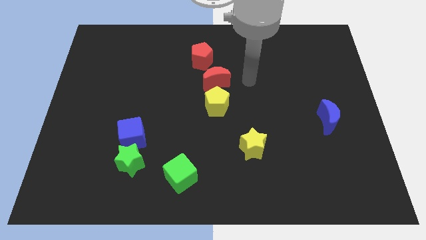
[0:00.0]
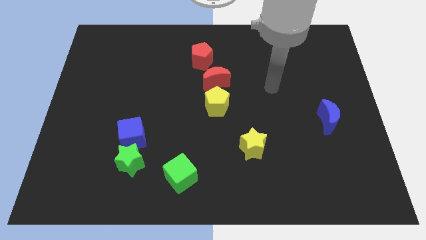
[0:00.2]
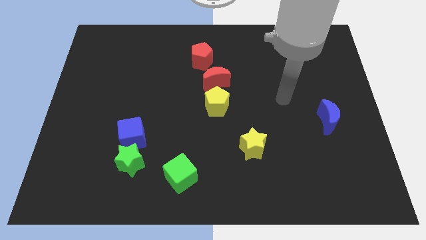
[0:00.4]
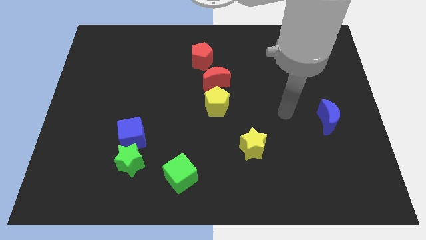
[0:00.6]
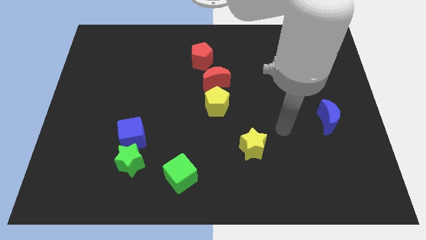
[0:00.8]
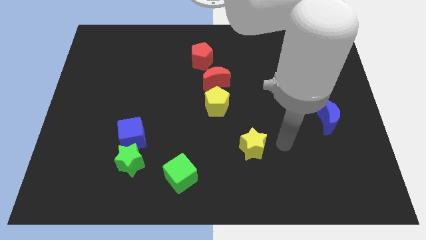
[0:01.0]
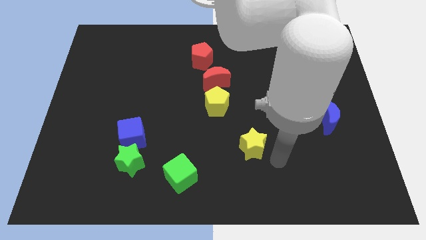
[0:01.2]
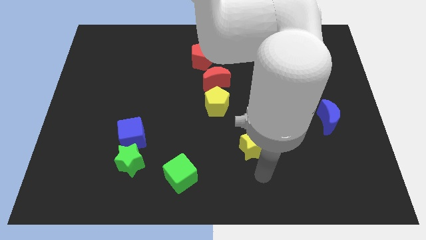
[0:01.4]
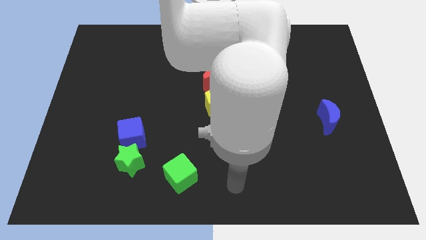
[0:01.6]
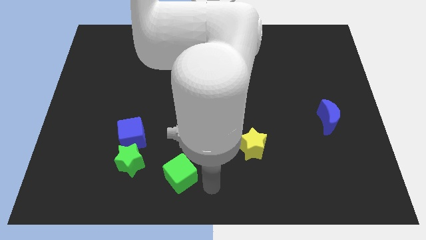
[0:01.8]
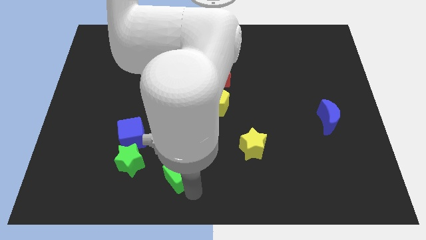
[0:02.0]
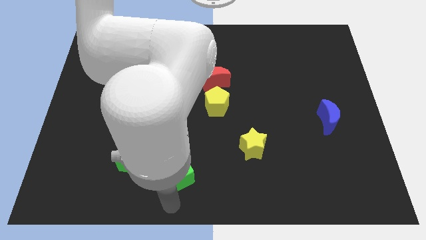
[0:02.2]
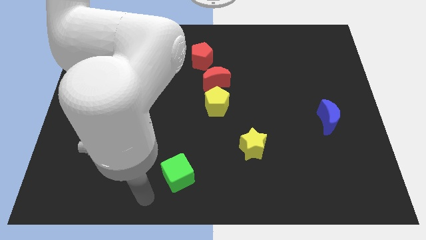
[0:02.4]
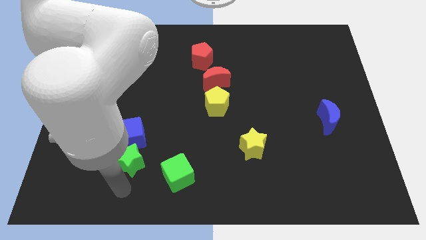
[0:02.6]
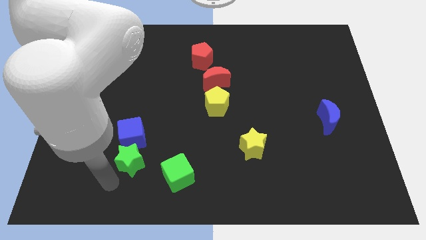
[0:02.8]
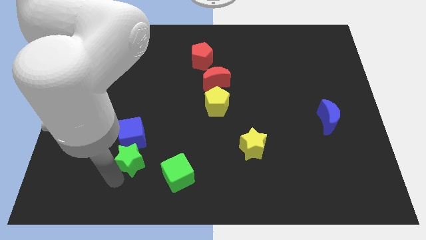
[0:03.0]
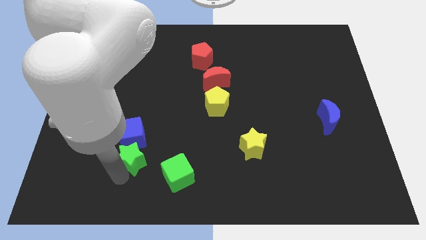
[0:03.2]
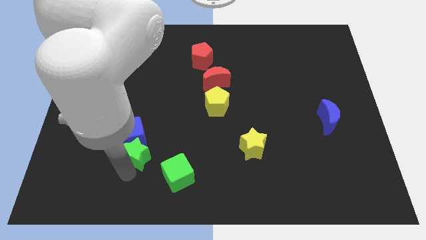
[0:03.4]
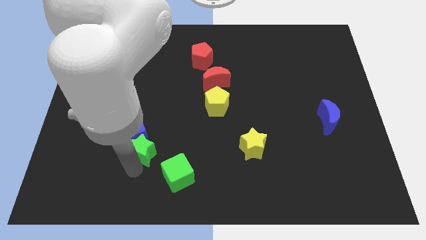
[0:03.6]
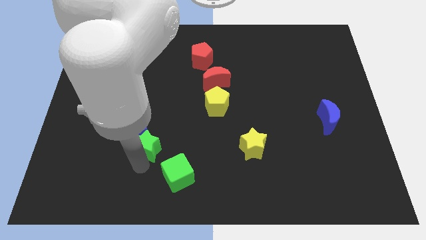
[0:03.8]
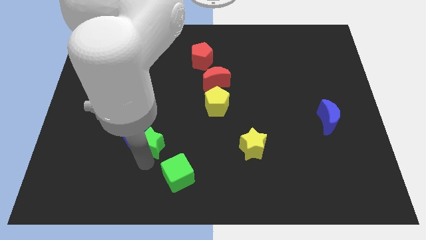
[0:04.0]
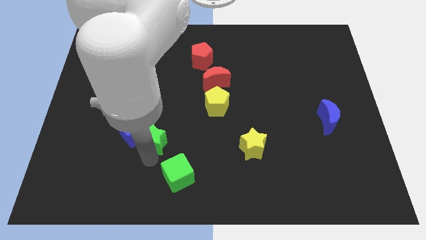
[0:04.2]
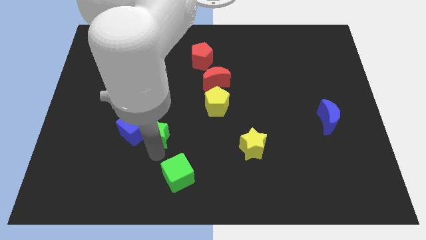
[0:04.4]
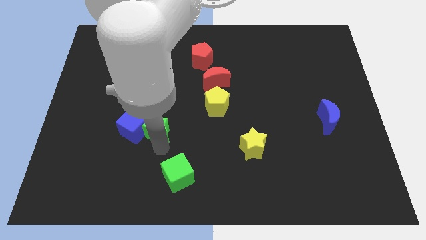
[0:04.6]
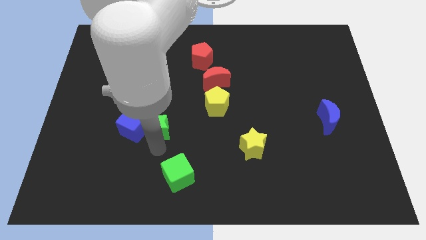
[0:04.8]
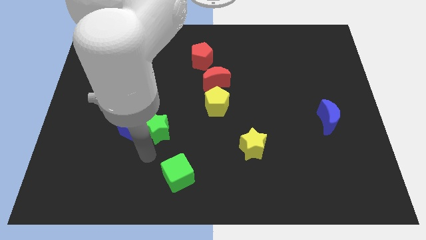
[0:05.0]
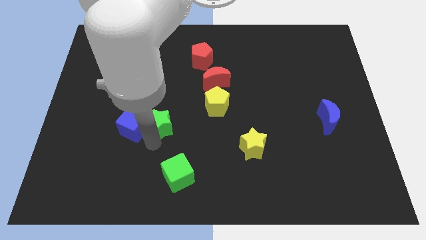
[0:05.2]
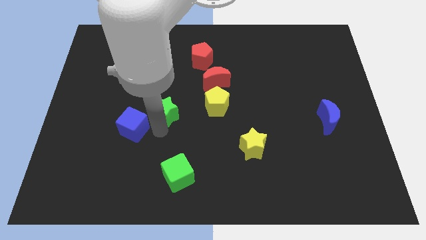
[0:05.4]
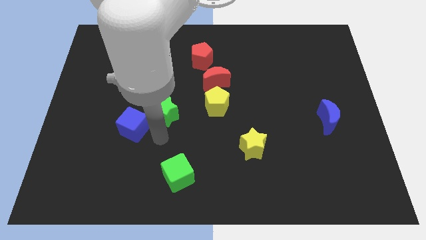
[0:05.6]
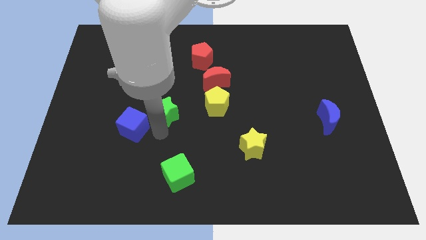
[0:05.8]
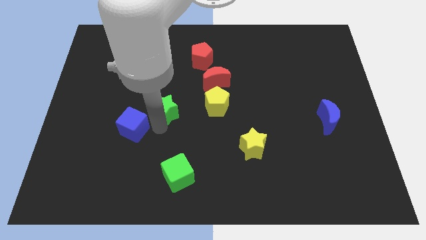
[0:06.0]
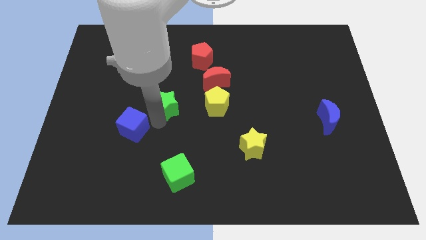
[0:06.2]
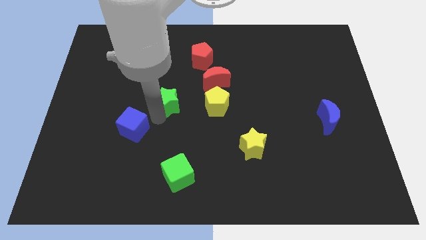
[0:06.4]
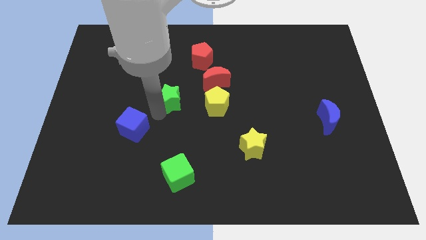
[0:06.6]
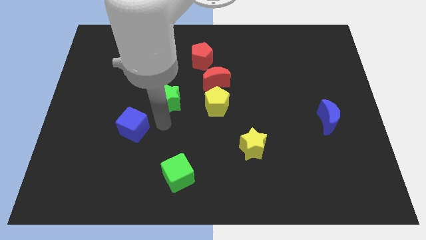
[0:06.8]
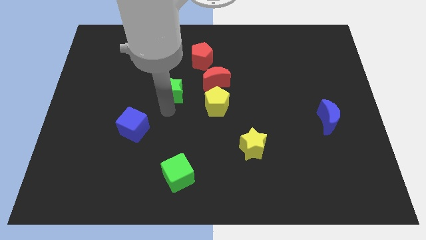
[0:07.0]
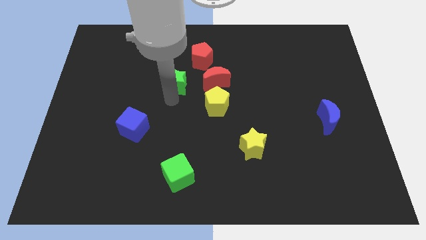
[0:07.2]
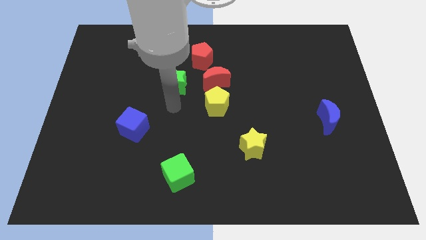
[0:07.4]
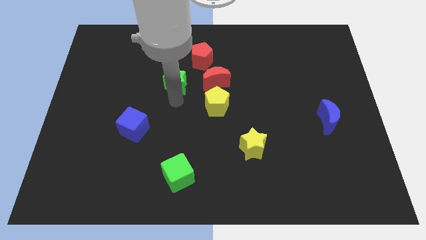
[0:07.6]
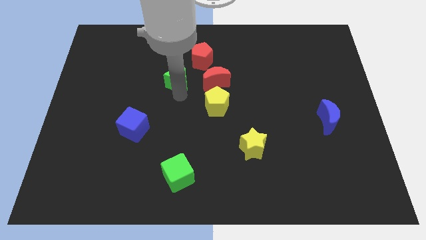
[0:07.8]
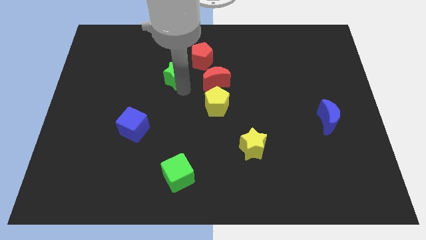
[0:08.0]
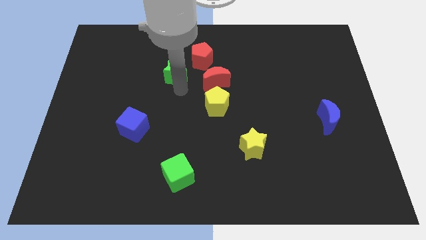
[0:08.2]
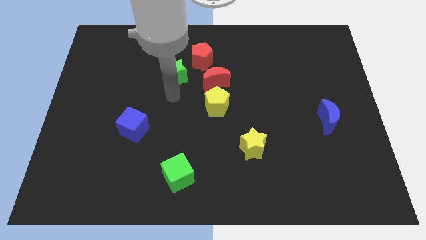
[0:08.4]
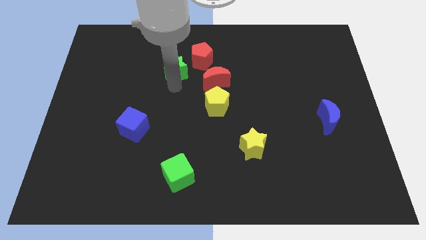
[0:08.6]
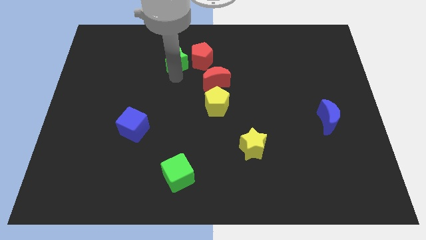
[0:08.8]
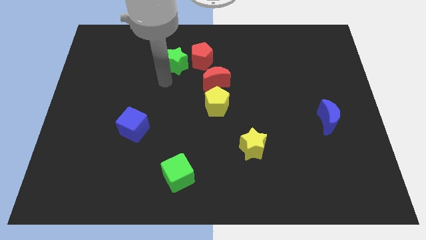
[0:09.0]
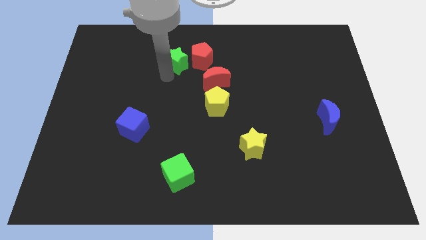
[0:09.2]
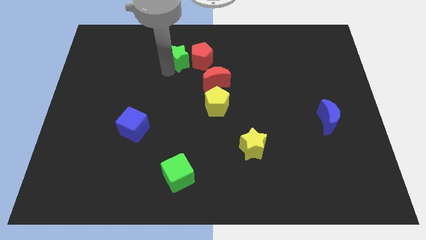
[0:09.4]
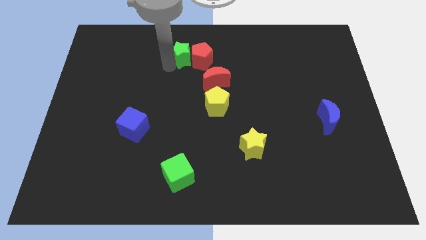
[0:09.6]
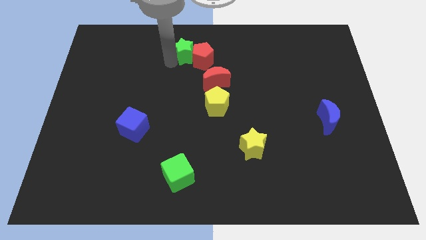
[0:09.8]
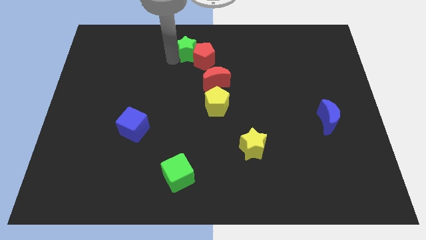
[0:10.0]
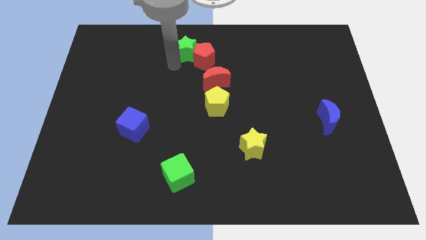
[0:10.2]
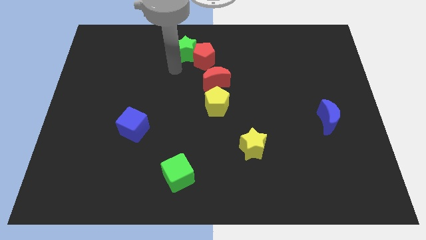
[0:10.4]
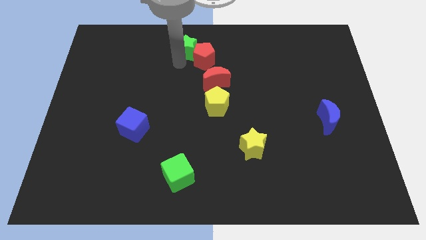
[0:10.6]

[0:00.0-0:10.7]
push the green star to the top

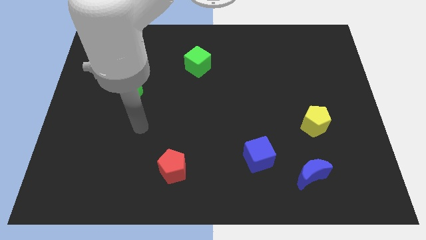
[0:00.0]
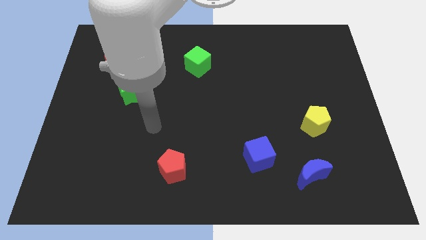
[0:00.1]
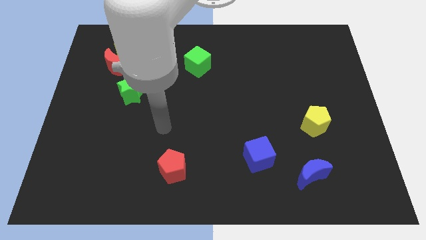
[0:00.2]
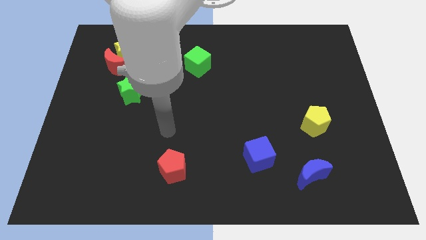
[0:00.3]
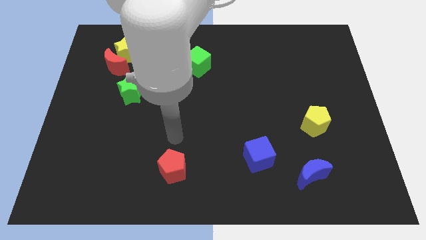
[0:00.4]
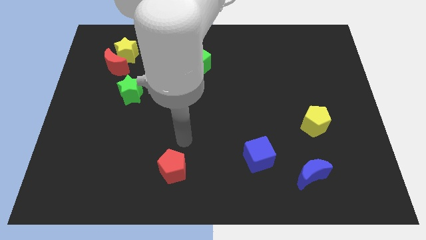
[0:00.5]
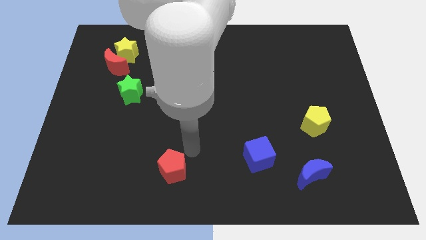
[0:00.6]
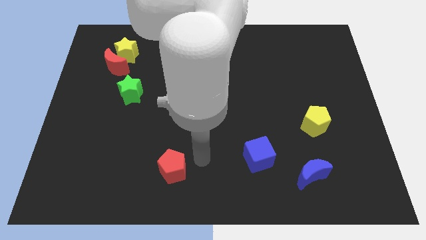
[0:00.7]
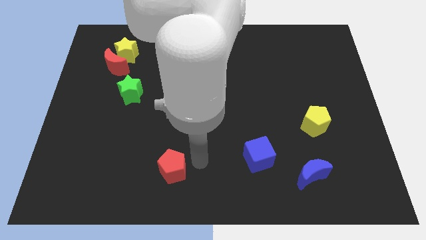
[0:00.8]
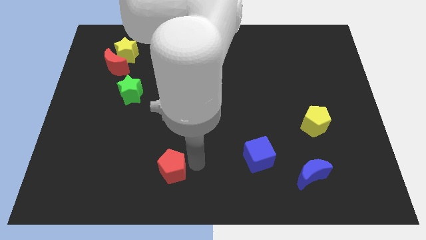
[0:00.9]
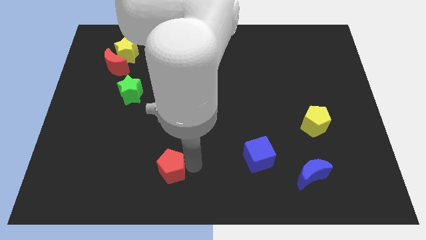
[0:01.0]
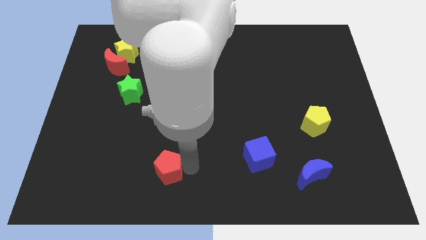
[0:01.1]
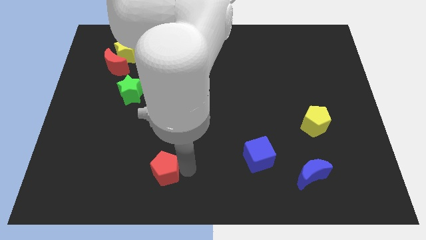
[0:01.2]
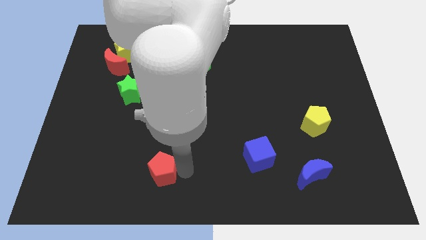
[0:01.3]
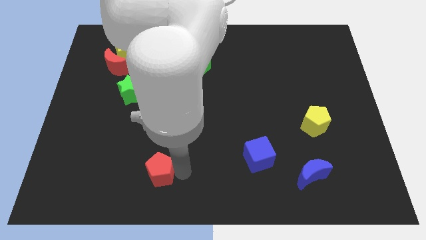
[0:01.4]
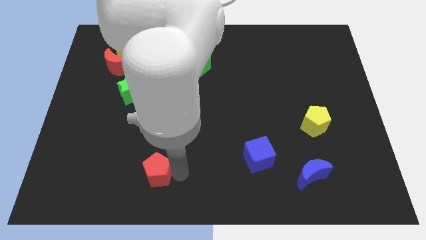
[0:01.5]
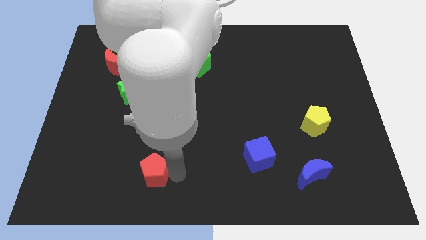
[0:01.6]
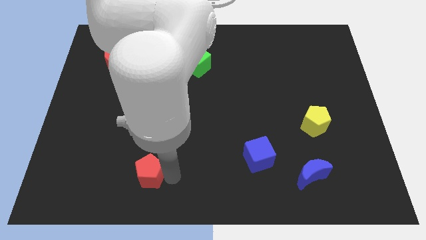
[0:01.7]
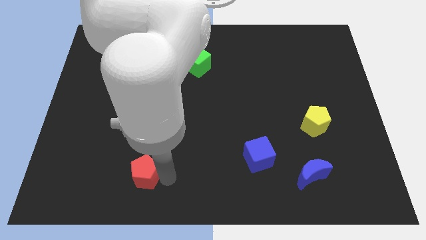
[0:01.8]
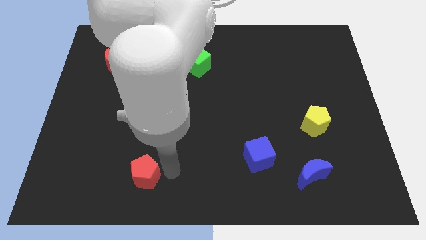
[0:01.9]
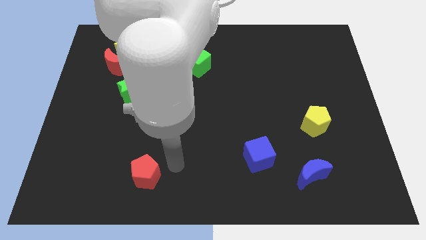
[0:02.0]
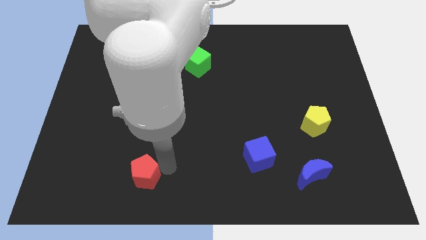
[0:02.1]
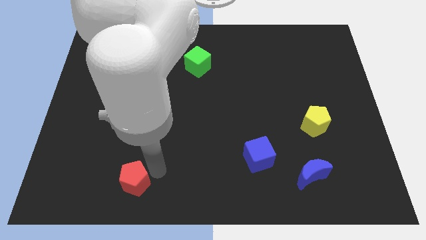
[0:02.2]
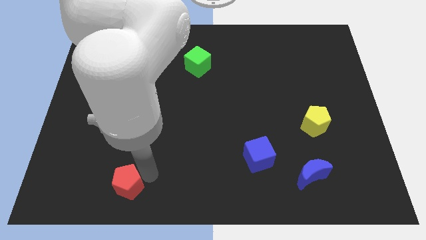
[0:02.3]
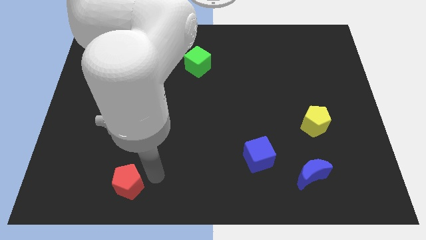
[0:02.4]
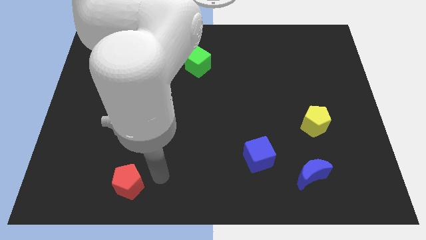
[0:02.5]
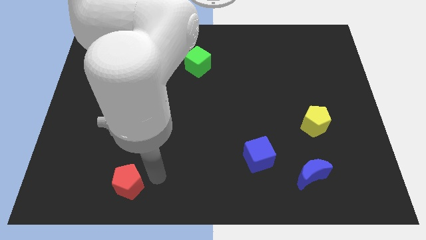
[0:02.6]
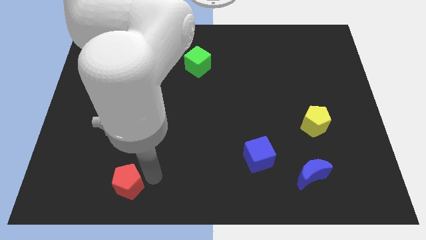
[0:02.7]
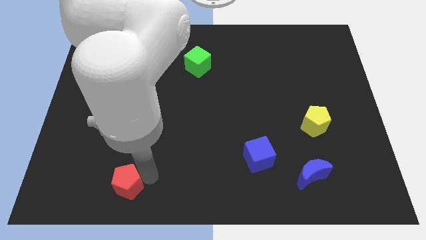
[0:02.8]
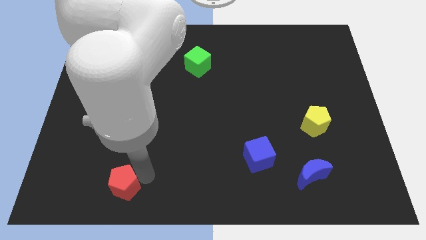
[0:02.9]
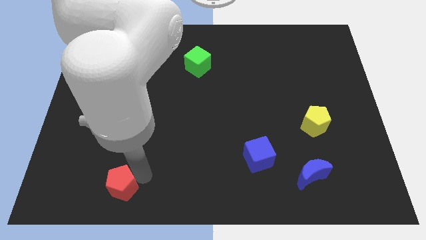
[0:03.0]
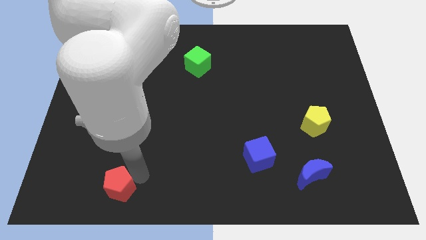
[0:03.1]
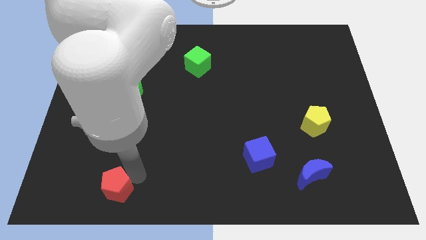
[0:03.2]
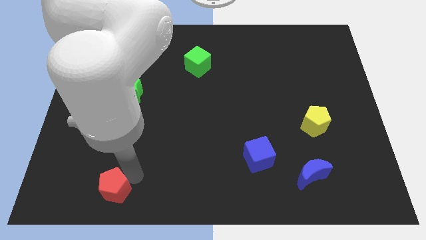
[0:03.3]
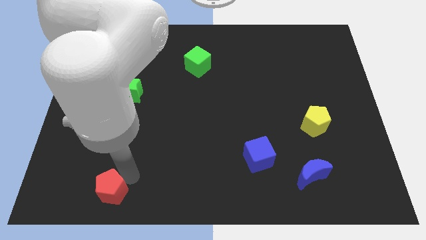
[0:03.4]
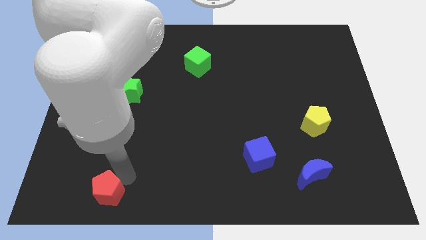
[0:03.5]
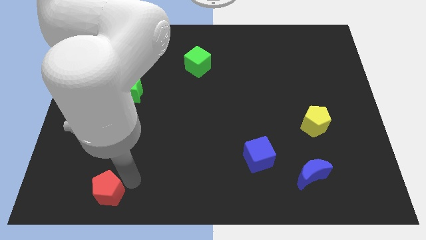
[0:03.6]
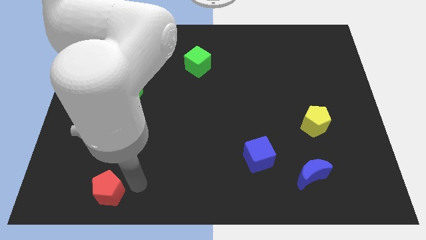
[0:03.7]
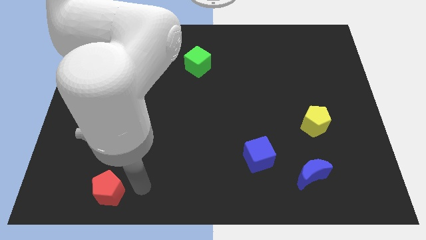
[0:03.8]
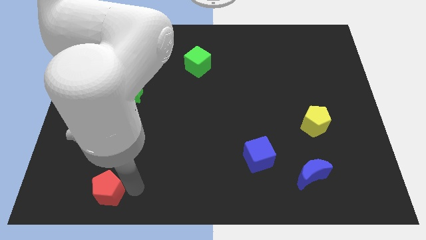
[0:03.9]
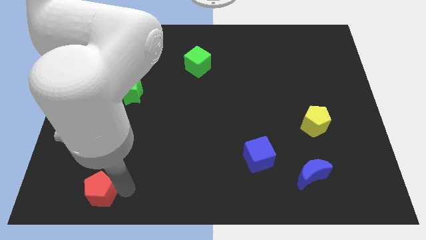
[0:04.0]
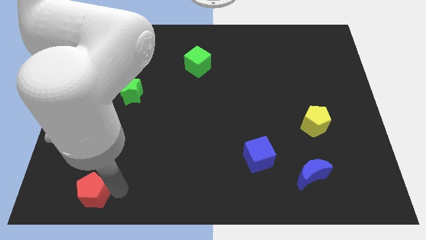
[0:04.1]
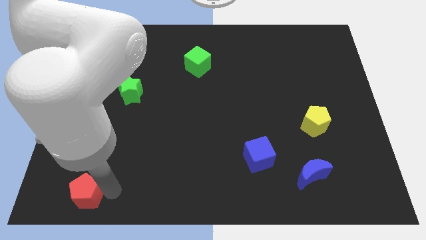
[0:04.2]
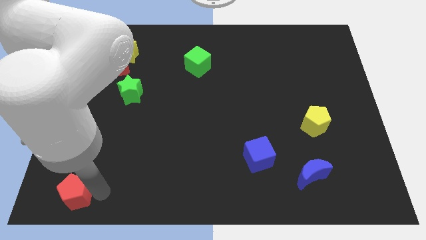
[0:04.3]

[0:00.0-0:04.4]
move the red pentagon to the bottom left of the board
